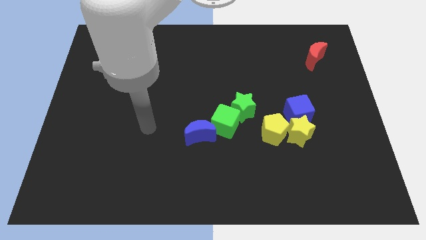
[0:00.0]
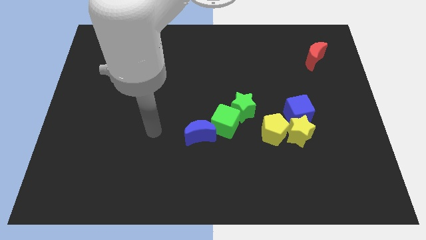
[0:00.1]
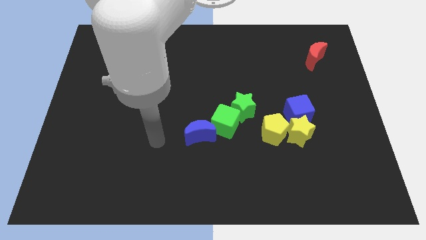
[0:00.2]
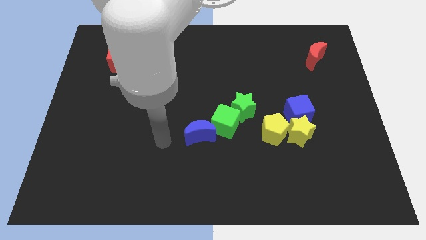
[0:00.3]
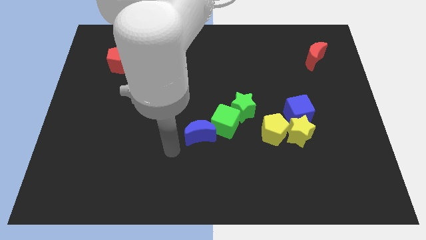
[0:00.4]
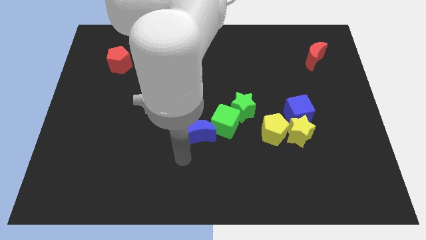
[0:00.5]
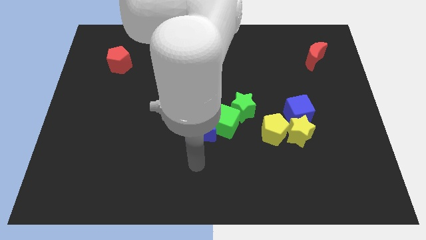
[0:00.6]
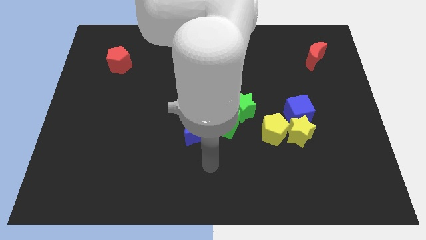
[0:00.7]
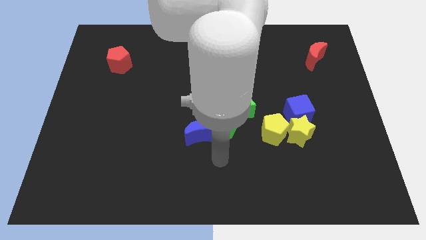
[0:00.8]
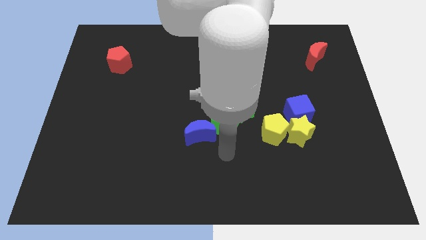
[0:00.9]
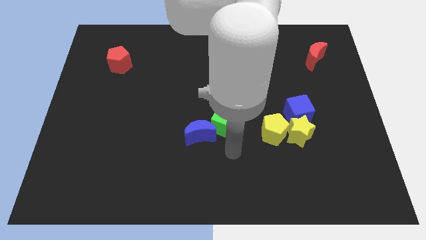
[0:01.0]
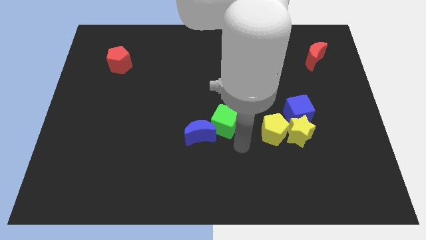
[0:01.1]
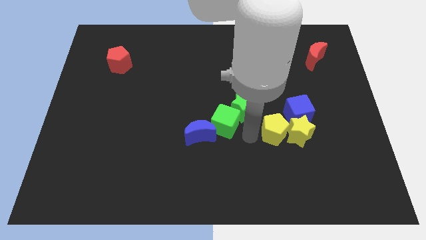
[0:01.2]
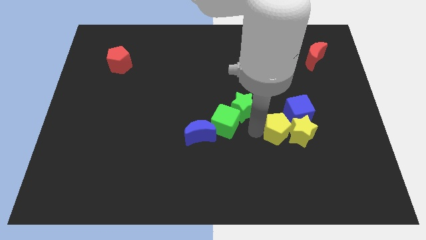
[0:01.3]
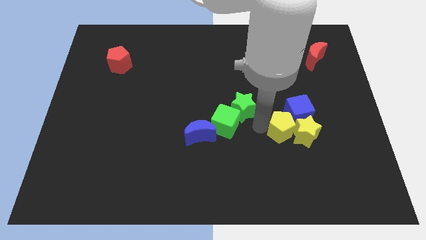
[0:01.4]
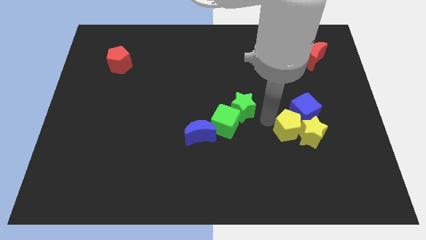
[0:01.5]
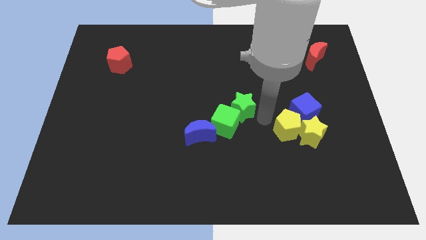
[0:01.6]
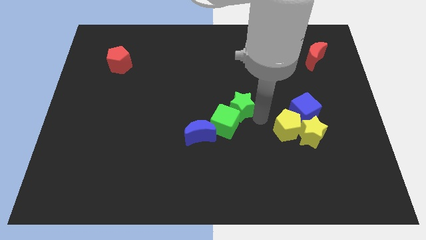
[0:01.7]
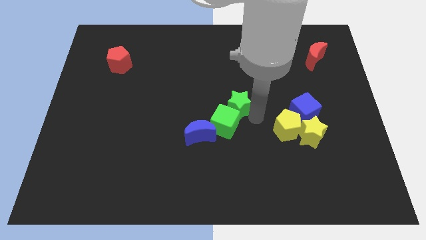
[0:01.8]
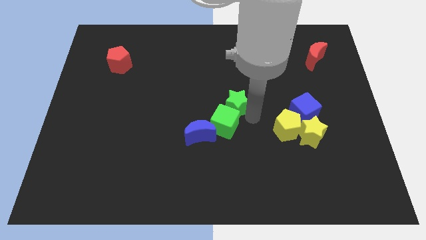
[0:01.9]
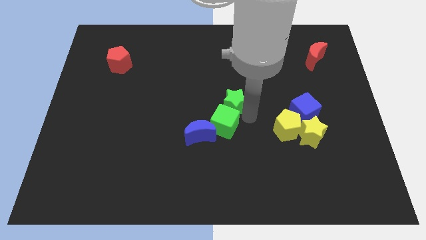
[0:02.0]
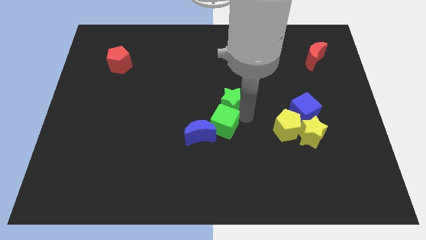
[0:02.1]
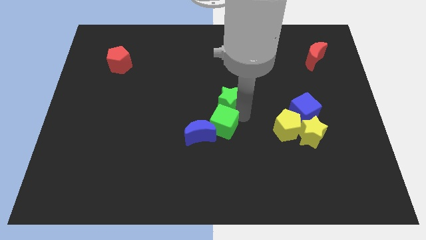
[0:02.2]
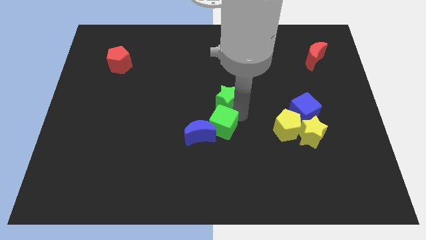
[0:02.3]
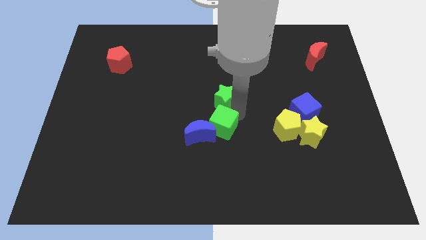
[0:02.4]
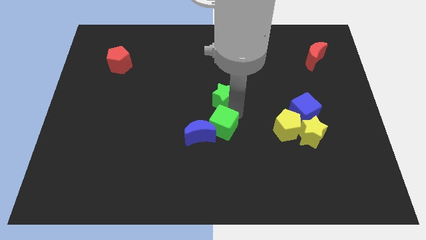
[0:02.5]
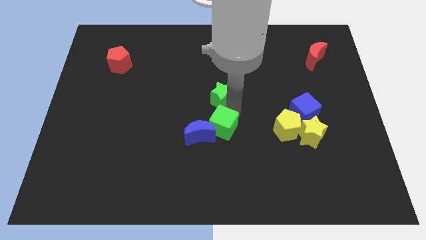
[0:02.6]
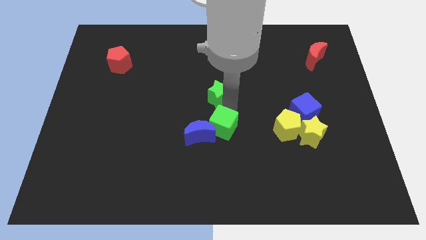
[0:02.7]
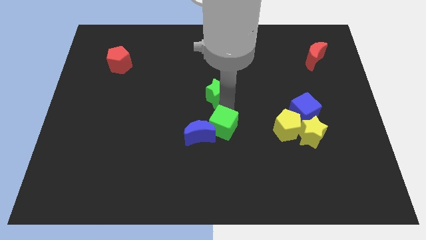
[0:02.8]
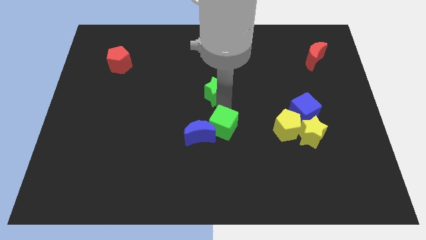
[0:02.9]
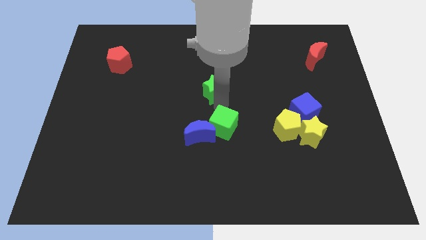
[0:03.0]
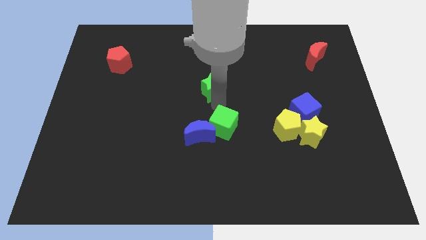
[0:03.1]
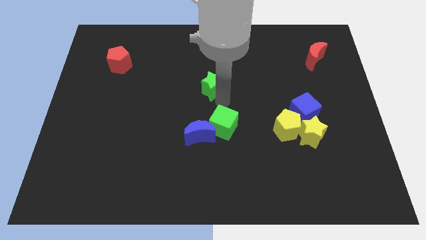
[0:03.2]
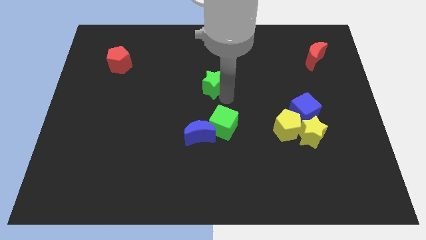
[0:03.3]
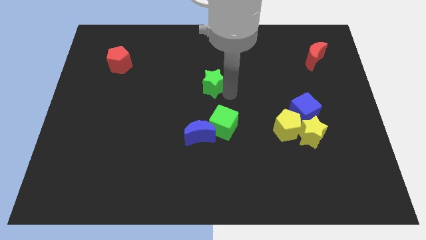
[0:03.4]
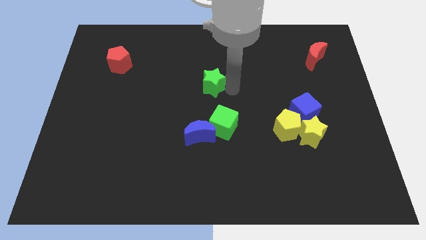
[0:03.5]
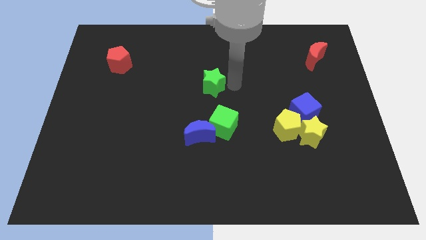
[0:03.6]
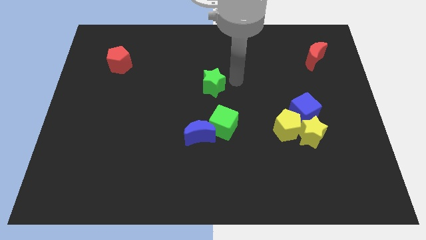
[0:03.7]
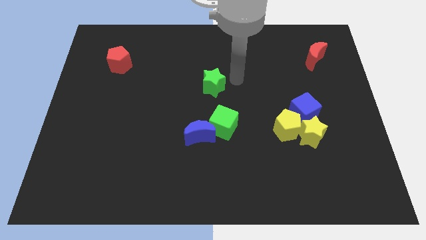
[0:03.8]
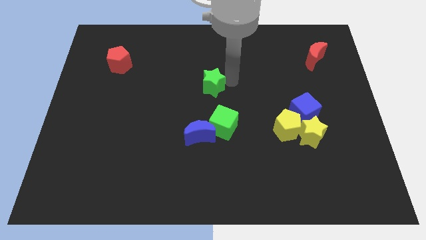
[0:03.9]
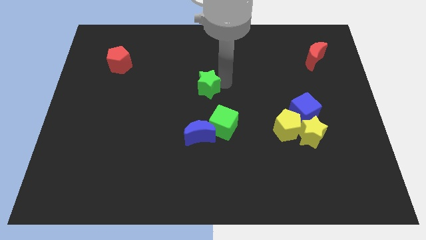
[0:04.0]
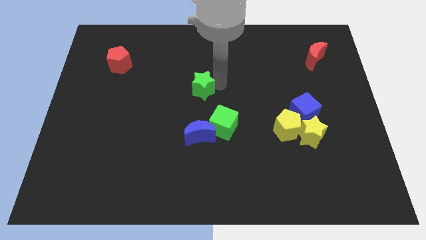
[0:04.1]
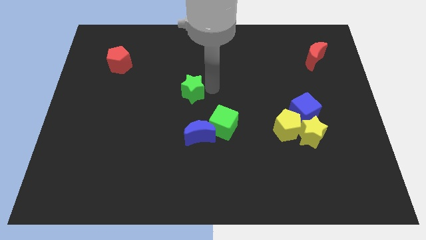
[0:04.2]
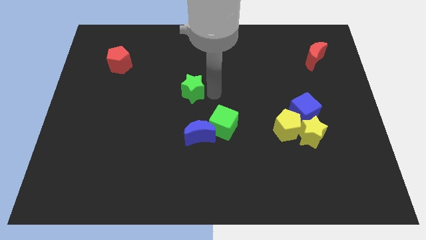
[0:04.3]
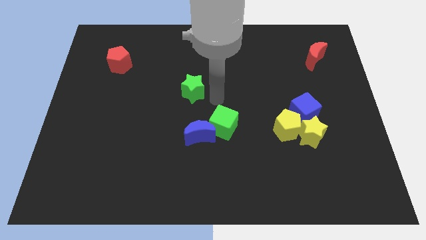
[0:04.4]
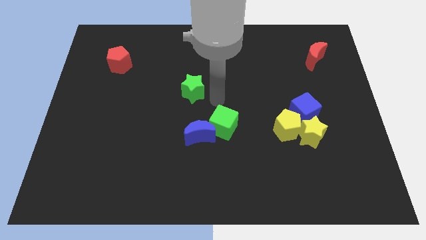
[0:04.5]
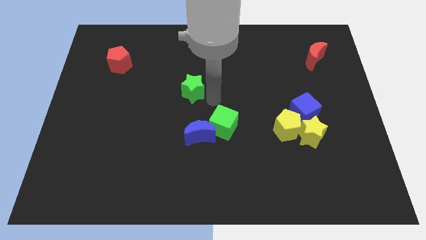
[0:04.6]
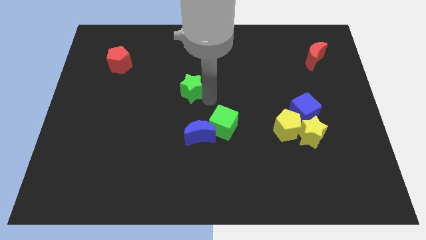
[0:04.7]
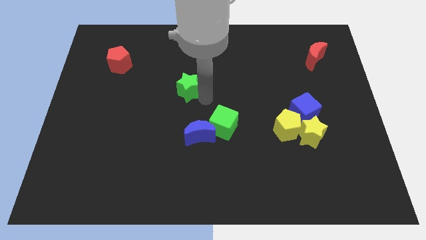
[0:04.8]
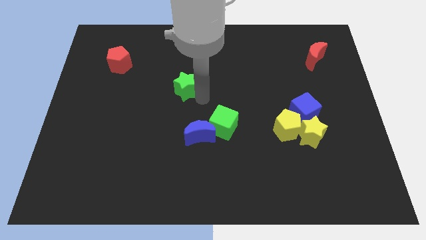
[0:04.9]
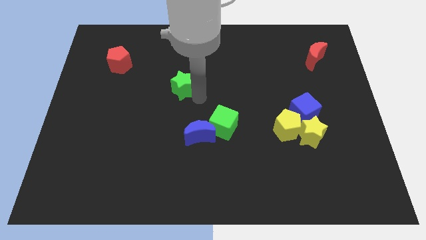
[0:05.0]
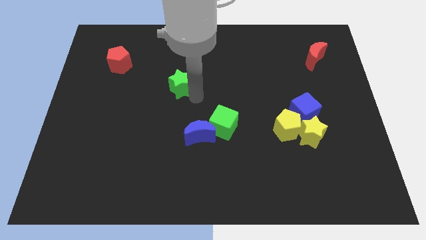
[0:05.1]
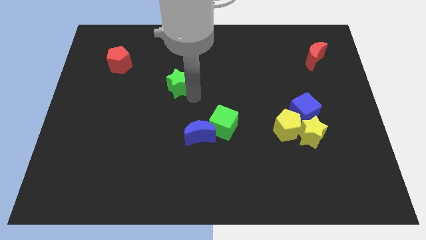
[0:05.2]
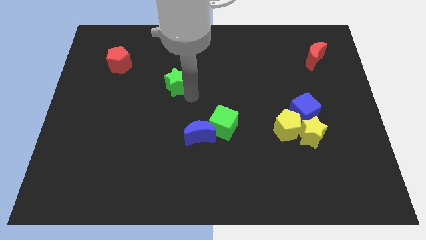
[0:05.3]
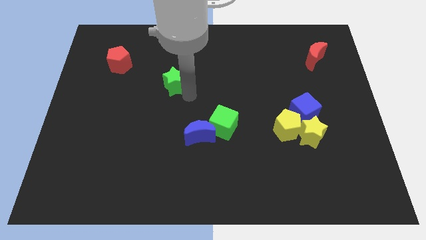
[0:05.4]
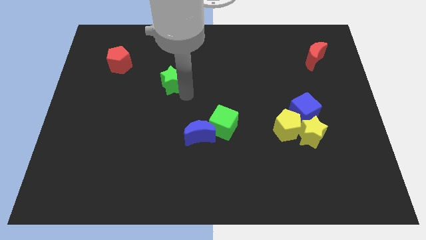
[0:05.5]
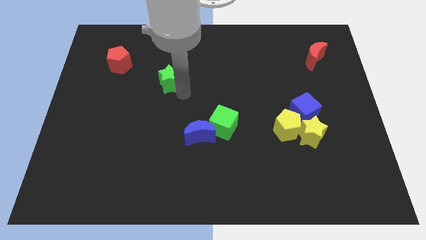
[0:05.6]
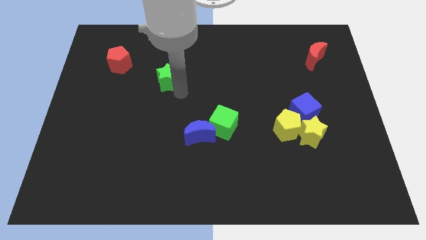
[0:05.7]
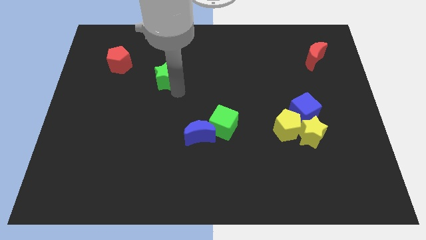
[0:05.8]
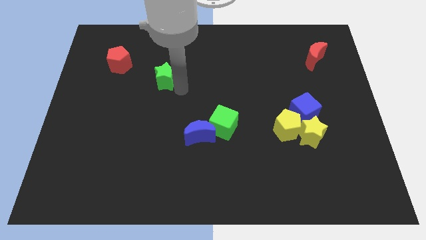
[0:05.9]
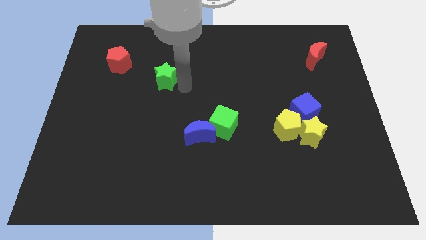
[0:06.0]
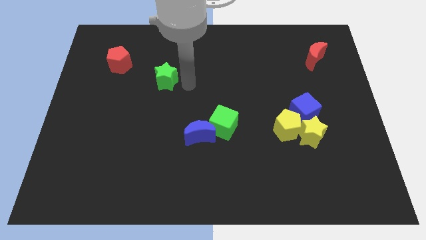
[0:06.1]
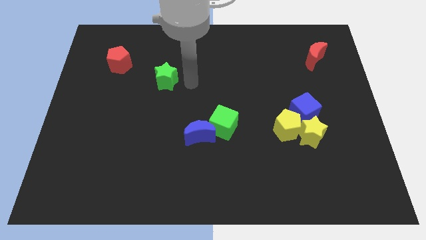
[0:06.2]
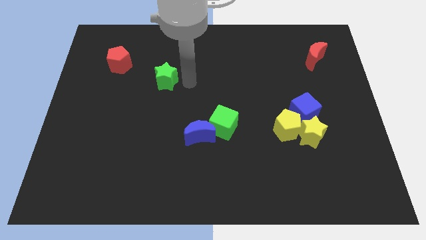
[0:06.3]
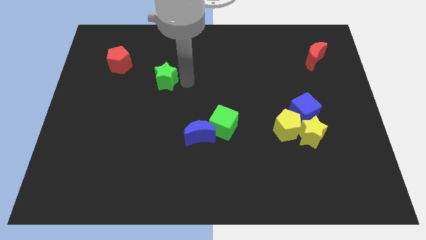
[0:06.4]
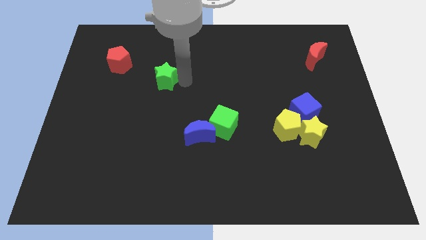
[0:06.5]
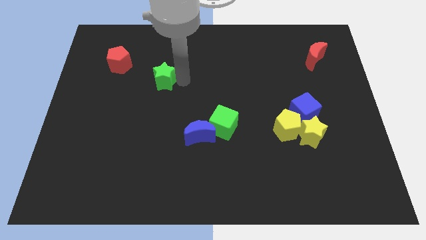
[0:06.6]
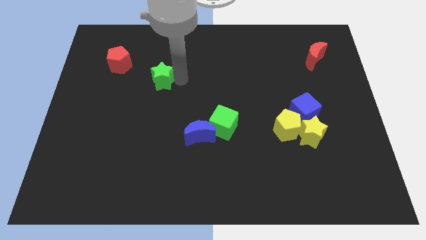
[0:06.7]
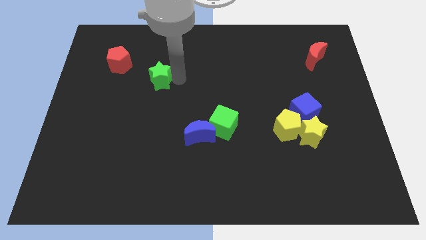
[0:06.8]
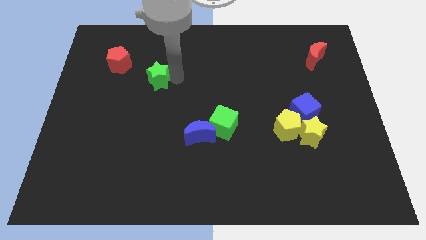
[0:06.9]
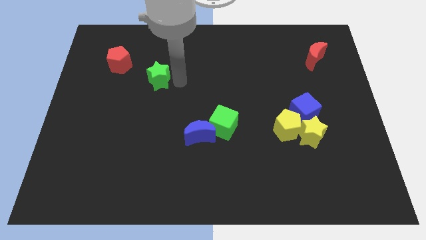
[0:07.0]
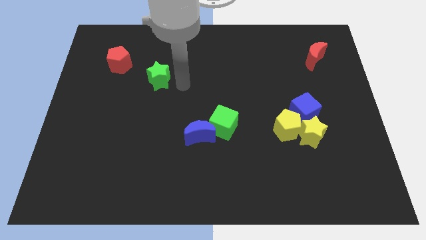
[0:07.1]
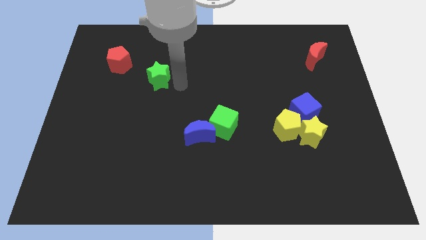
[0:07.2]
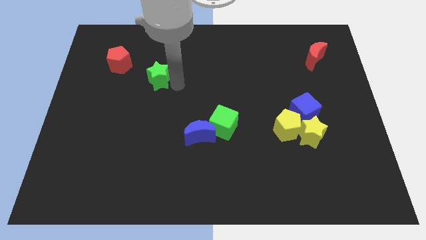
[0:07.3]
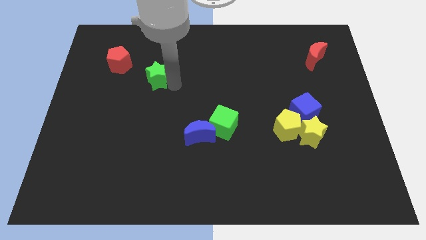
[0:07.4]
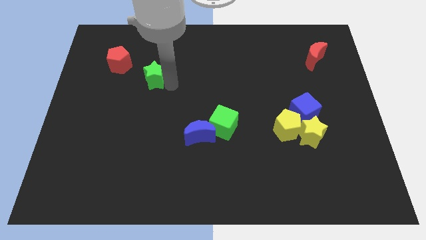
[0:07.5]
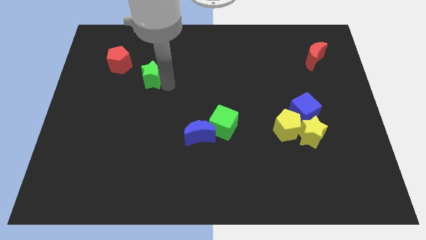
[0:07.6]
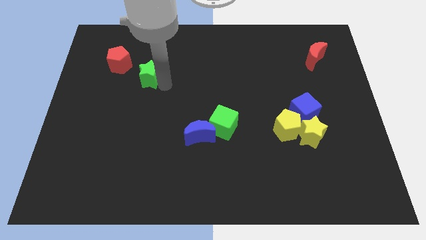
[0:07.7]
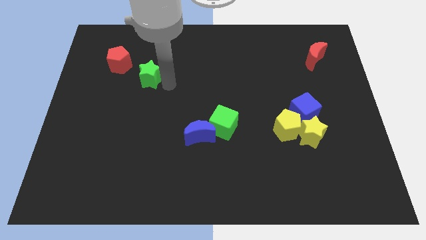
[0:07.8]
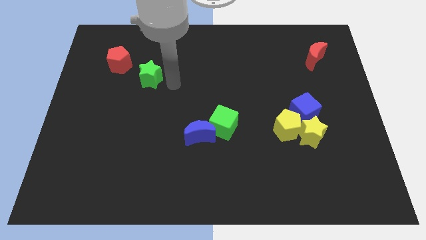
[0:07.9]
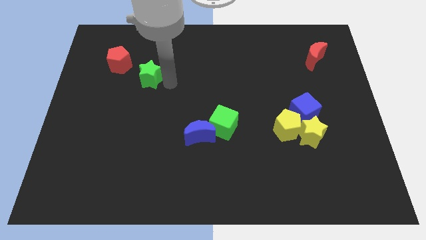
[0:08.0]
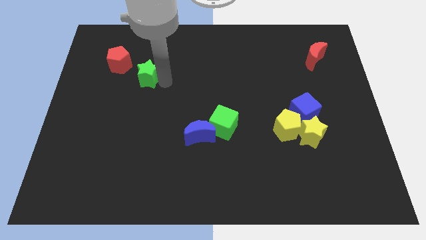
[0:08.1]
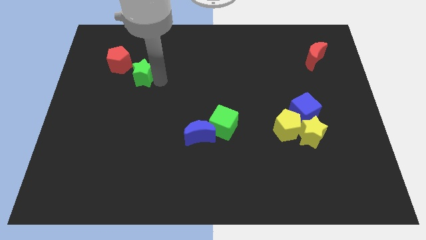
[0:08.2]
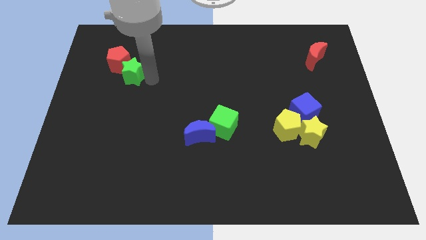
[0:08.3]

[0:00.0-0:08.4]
slide the green star towards the red pentagon
